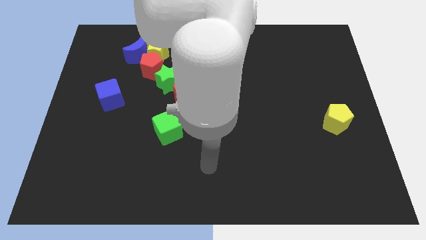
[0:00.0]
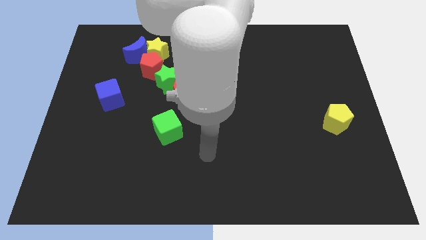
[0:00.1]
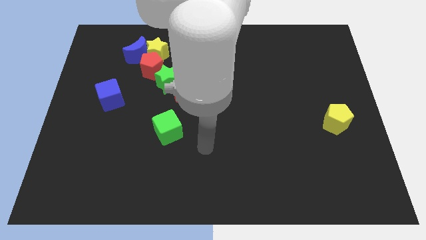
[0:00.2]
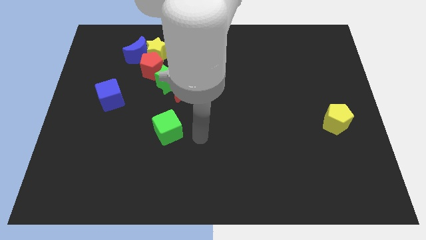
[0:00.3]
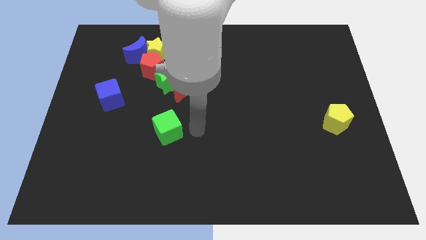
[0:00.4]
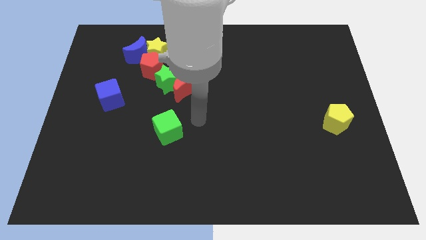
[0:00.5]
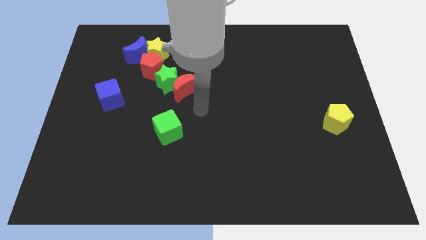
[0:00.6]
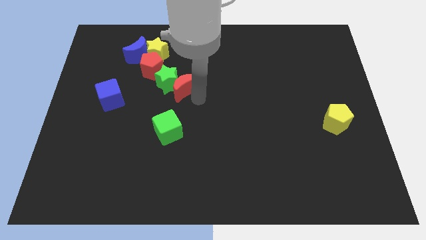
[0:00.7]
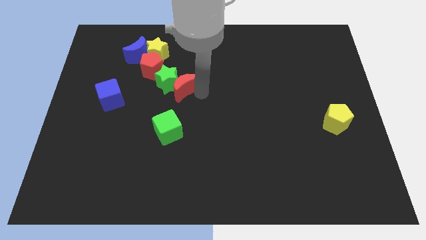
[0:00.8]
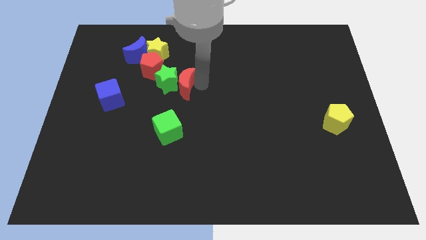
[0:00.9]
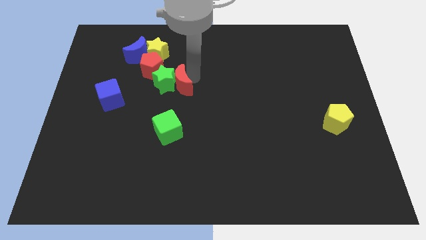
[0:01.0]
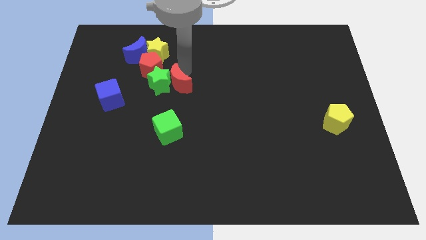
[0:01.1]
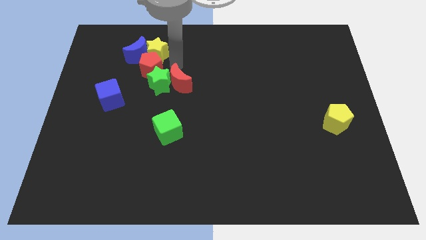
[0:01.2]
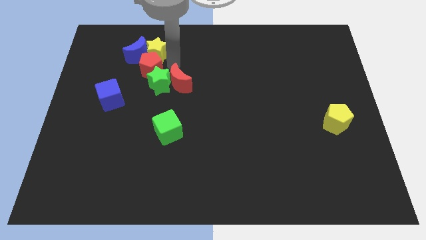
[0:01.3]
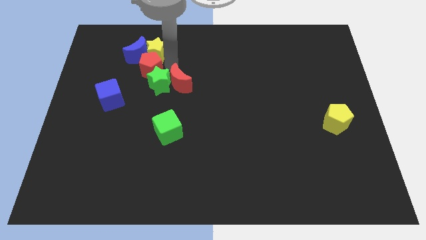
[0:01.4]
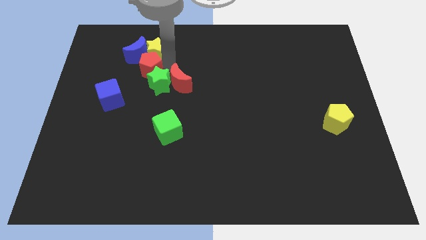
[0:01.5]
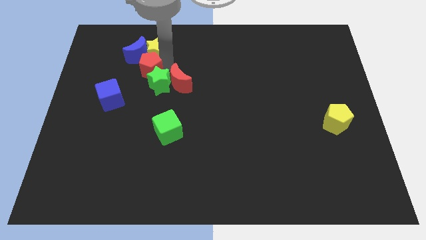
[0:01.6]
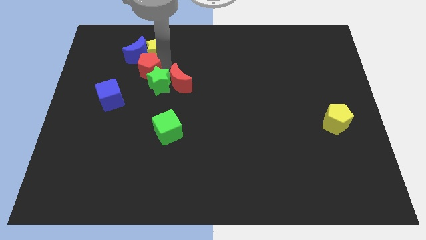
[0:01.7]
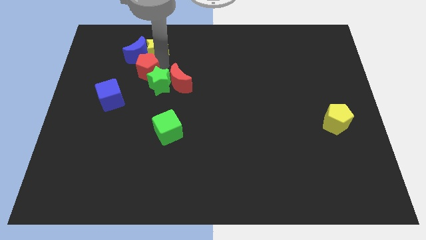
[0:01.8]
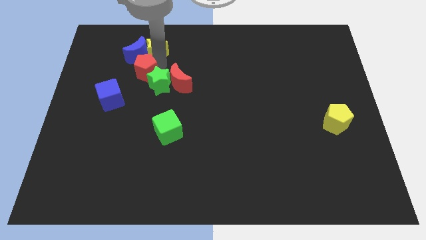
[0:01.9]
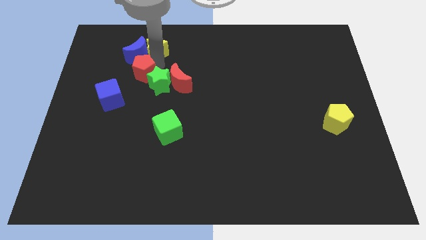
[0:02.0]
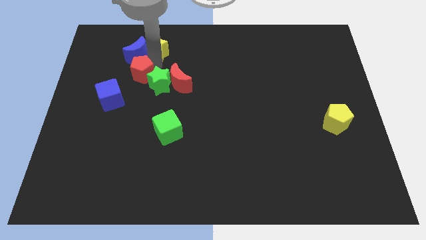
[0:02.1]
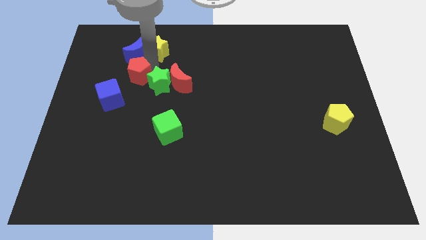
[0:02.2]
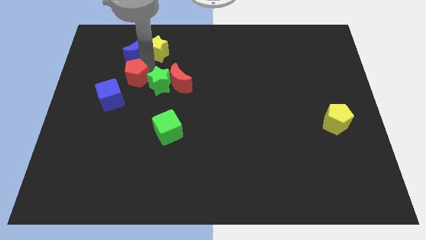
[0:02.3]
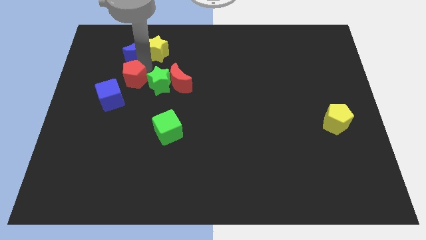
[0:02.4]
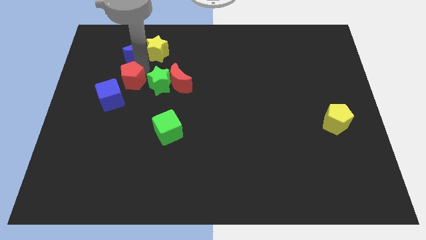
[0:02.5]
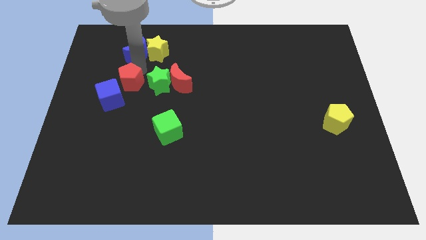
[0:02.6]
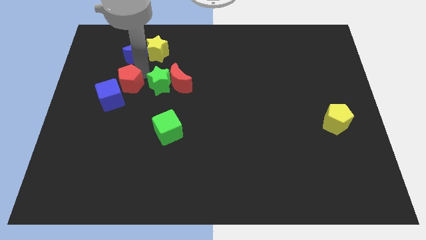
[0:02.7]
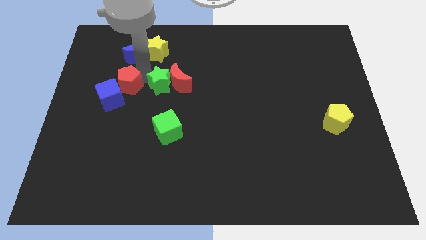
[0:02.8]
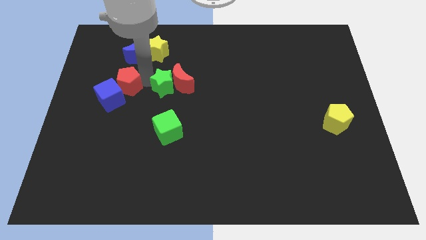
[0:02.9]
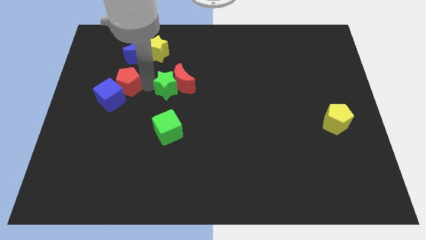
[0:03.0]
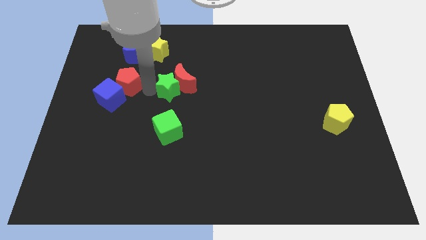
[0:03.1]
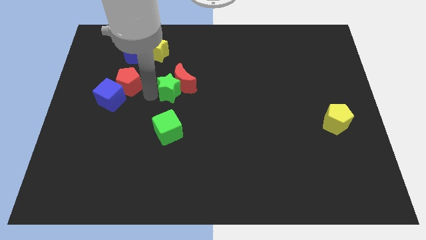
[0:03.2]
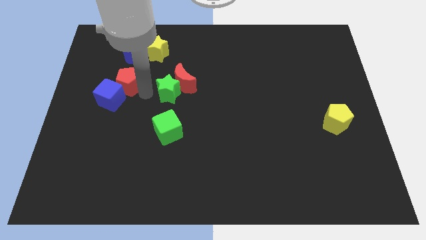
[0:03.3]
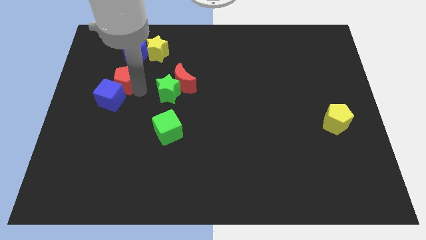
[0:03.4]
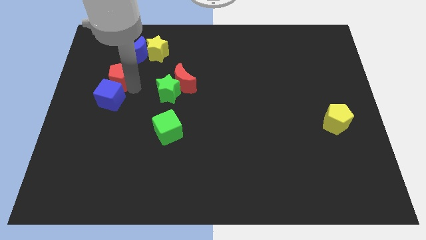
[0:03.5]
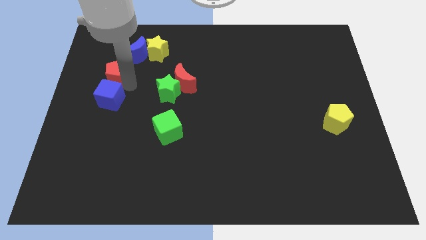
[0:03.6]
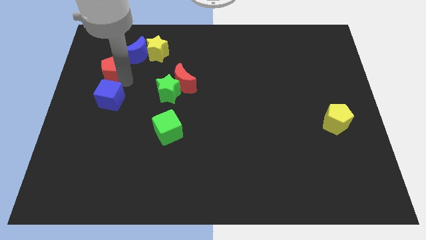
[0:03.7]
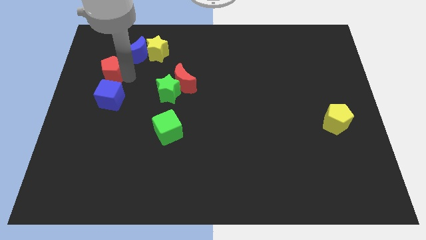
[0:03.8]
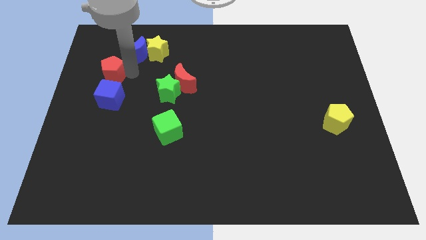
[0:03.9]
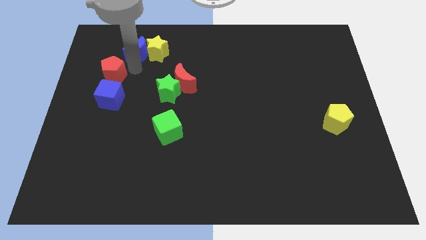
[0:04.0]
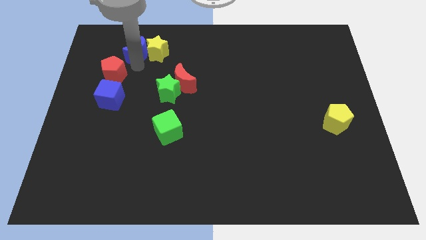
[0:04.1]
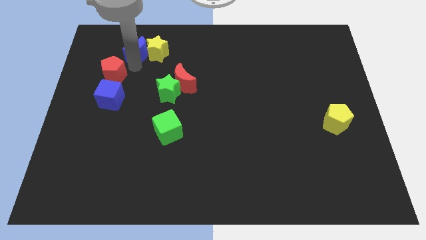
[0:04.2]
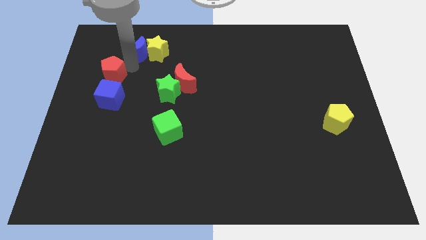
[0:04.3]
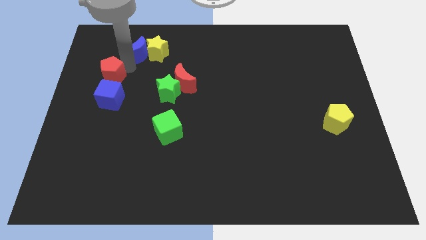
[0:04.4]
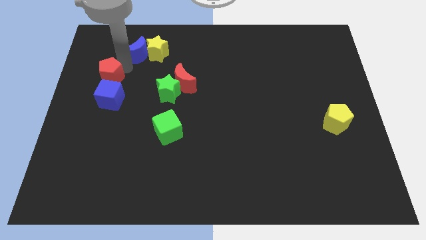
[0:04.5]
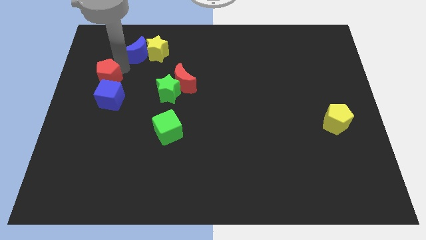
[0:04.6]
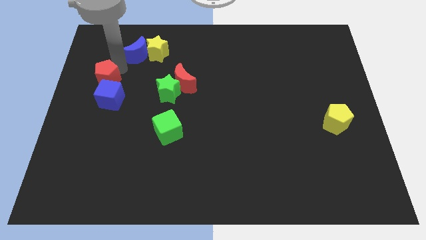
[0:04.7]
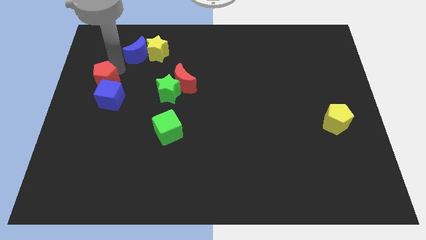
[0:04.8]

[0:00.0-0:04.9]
push the red pentagon to the left side

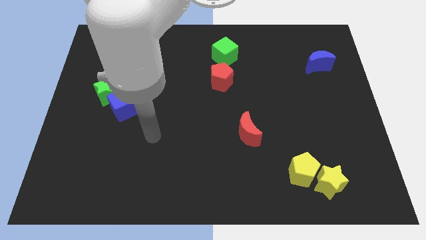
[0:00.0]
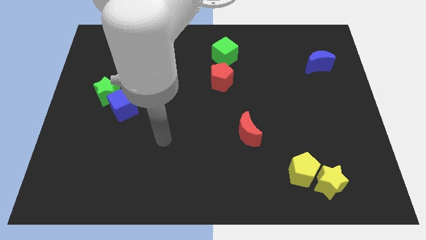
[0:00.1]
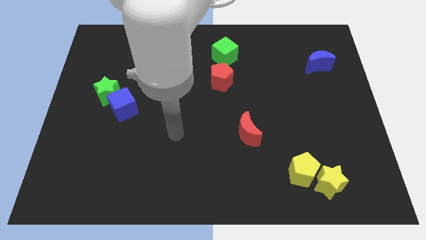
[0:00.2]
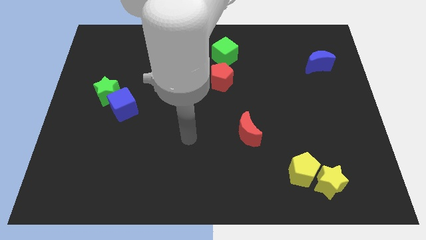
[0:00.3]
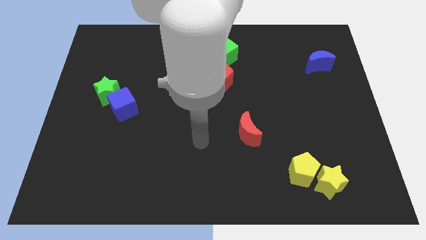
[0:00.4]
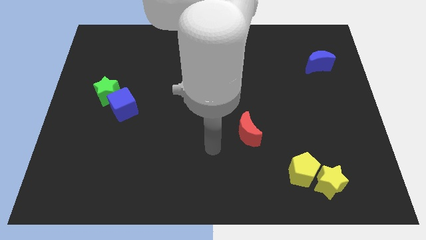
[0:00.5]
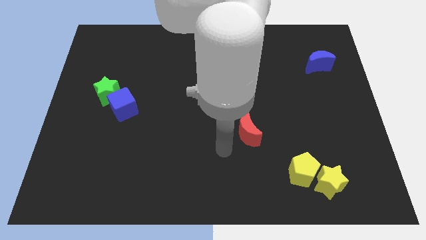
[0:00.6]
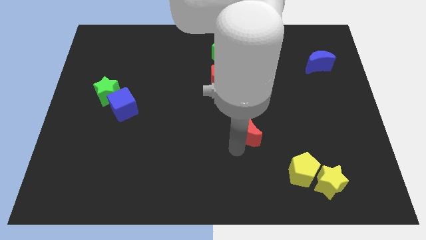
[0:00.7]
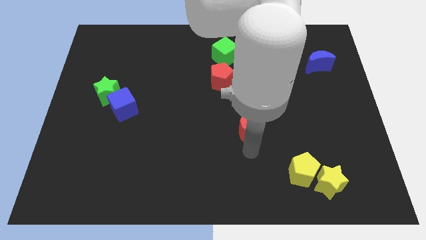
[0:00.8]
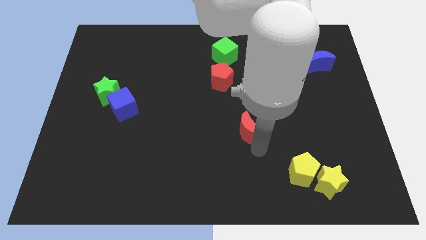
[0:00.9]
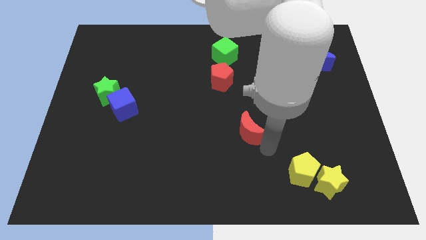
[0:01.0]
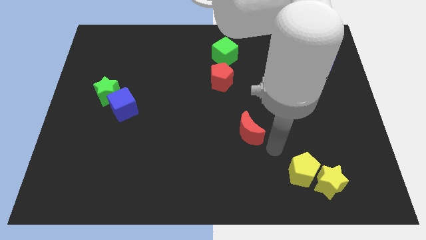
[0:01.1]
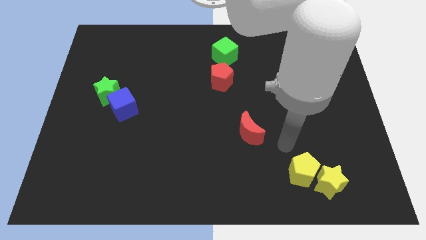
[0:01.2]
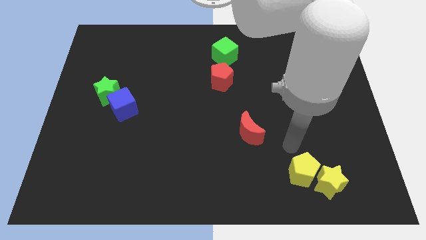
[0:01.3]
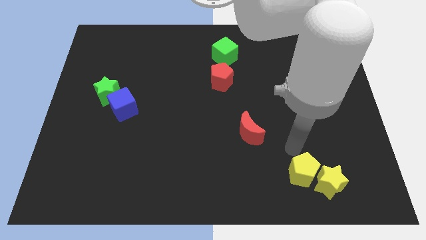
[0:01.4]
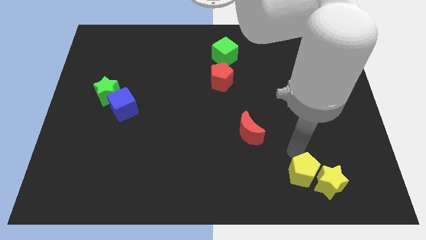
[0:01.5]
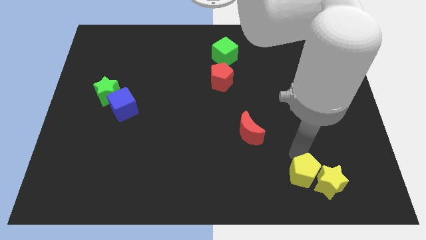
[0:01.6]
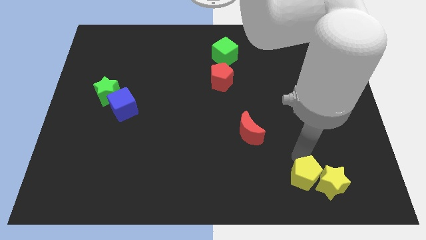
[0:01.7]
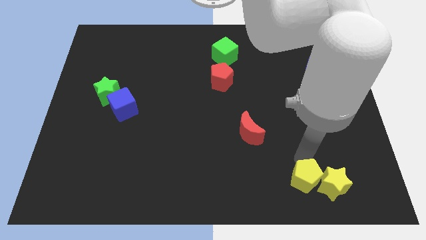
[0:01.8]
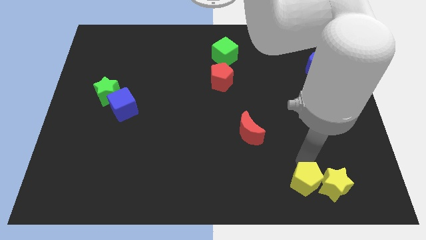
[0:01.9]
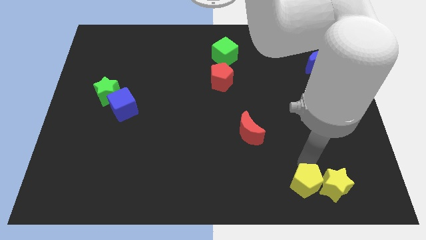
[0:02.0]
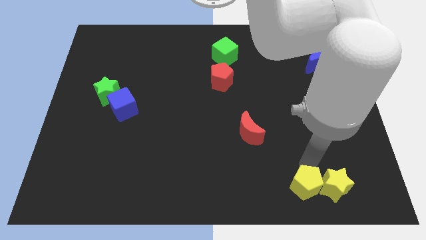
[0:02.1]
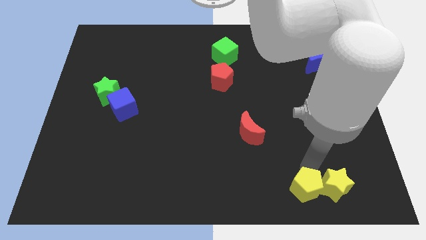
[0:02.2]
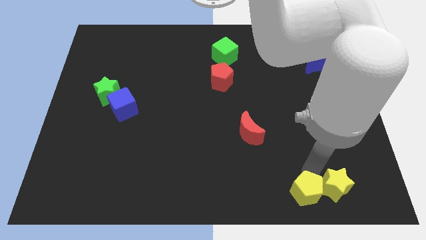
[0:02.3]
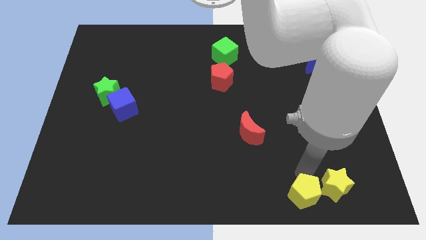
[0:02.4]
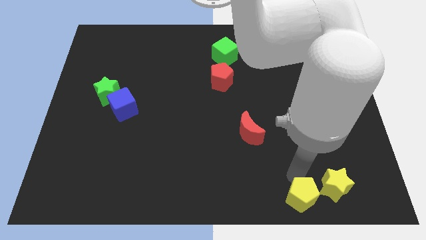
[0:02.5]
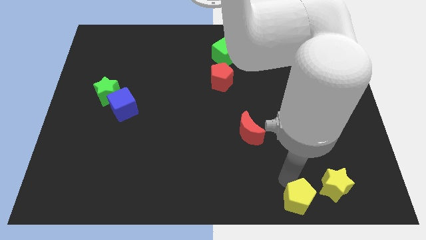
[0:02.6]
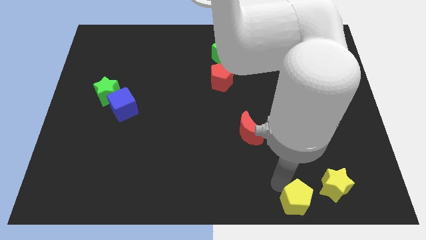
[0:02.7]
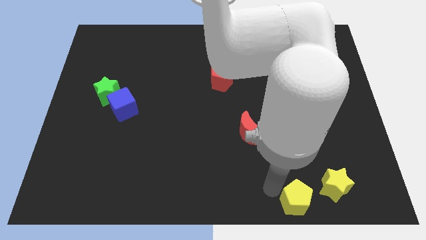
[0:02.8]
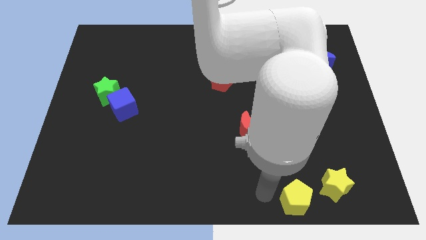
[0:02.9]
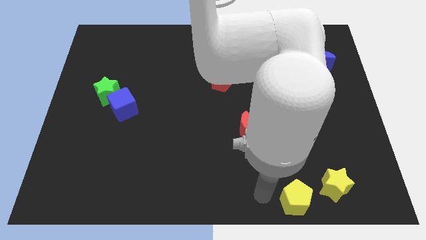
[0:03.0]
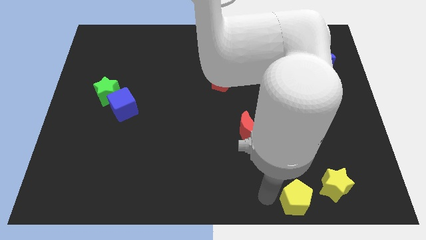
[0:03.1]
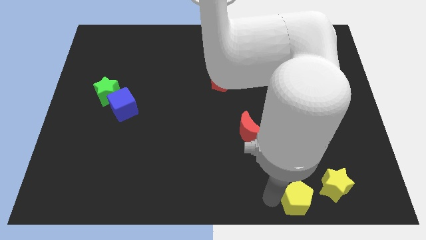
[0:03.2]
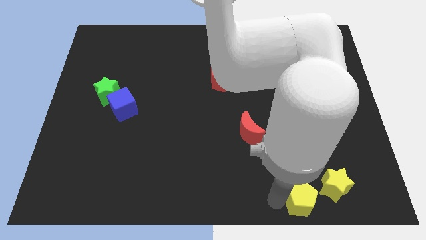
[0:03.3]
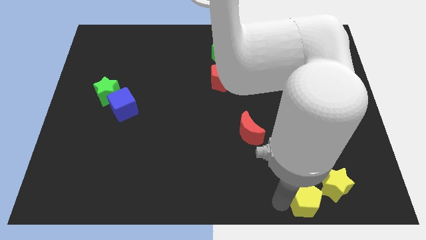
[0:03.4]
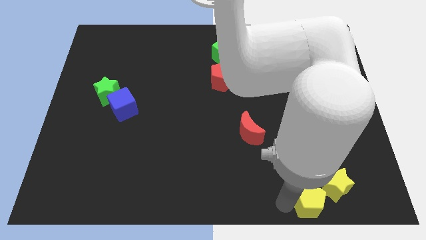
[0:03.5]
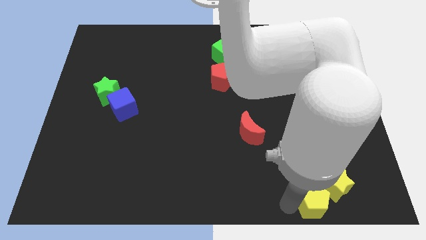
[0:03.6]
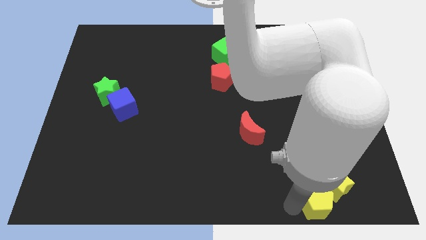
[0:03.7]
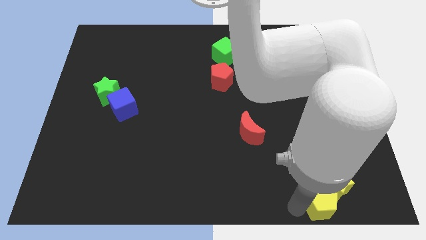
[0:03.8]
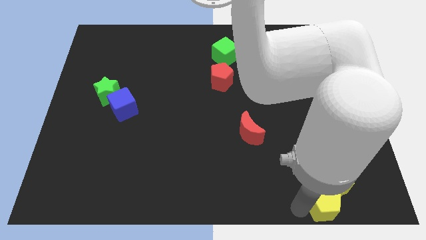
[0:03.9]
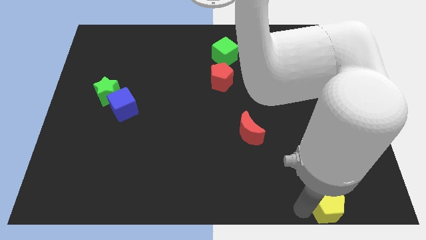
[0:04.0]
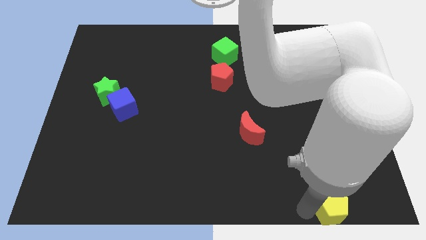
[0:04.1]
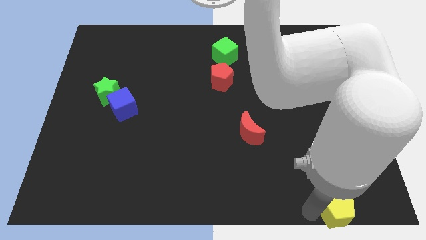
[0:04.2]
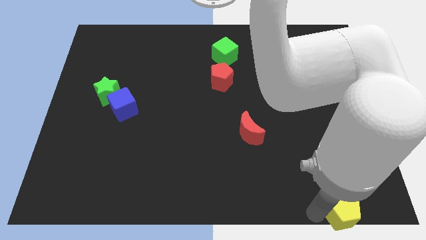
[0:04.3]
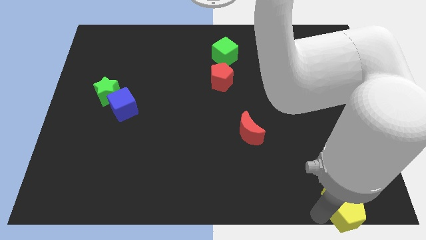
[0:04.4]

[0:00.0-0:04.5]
push the yellow pentagon to the bottom right
